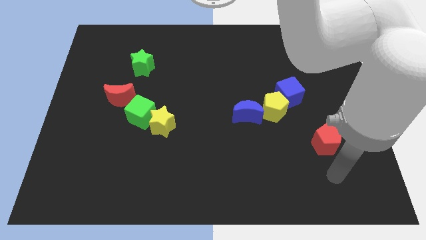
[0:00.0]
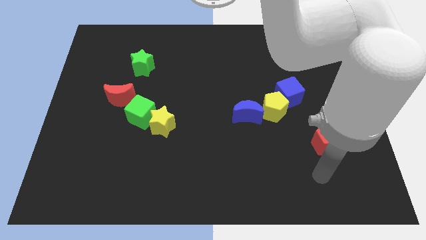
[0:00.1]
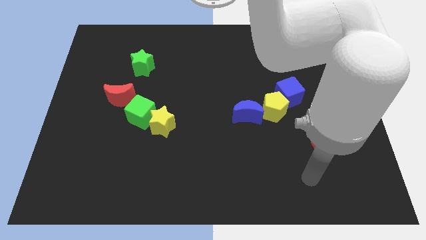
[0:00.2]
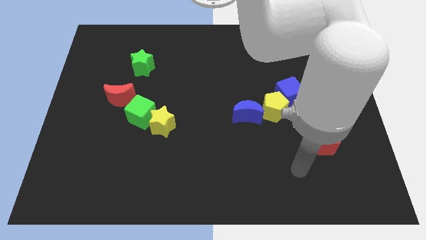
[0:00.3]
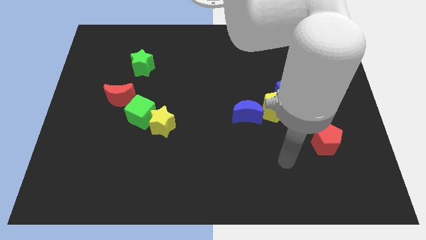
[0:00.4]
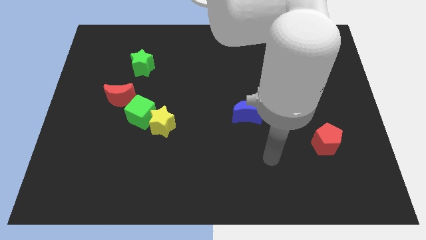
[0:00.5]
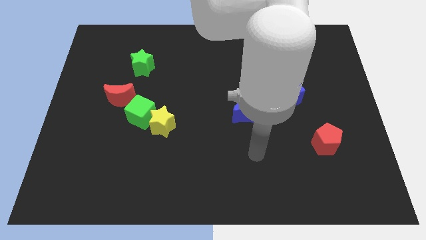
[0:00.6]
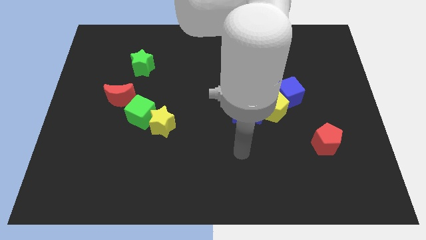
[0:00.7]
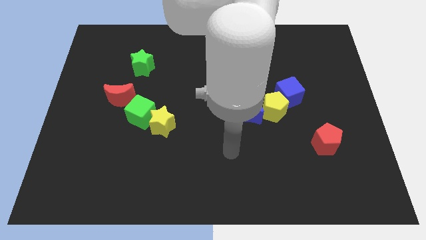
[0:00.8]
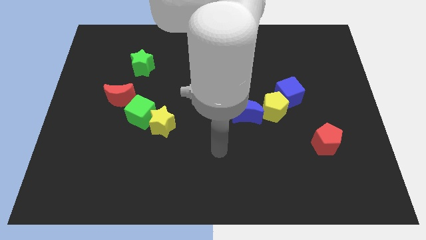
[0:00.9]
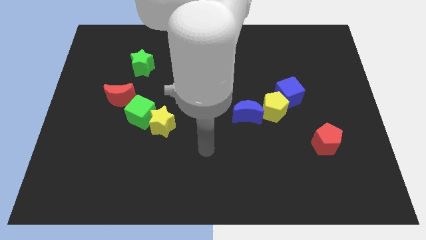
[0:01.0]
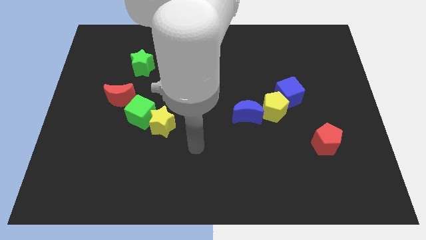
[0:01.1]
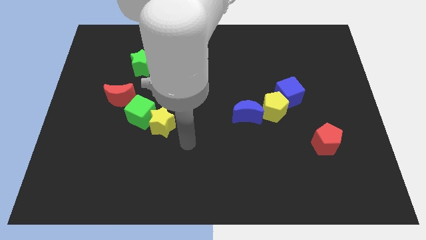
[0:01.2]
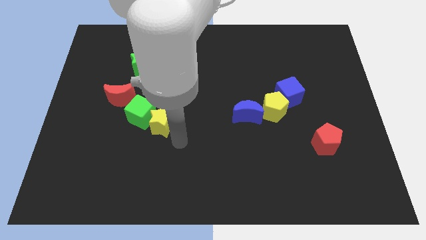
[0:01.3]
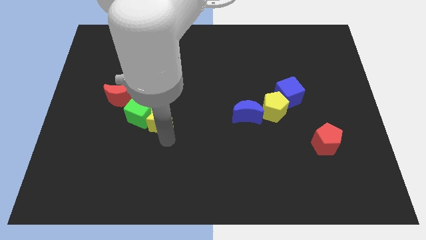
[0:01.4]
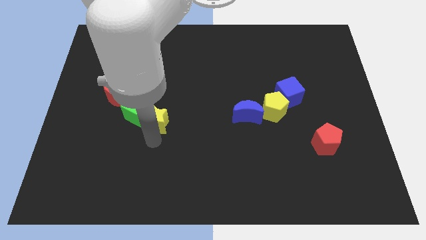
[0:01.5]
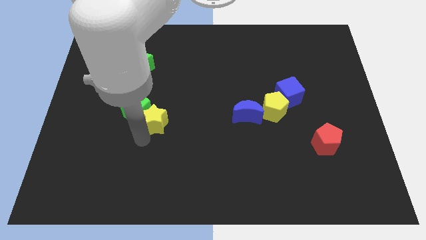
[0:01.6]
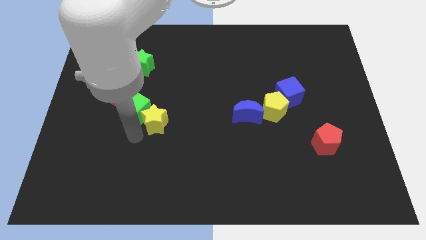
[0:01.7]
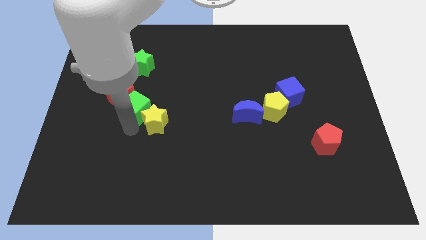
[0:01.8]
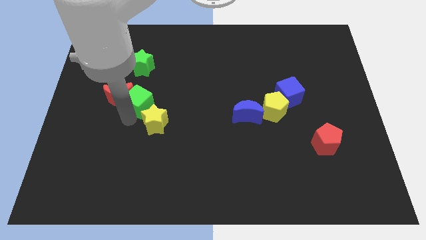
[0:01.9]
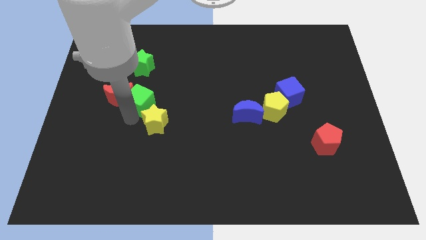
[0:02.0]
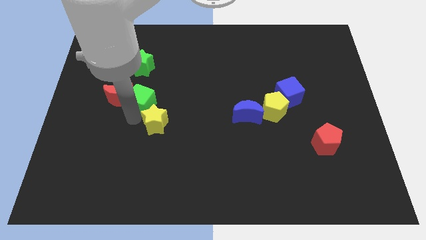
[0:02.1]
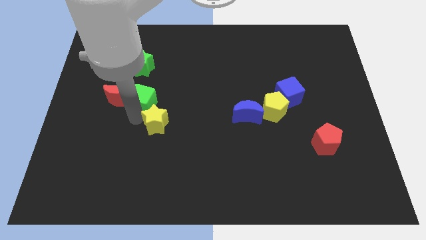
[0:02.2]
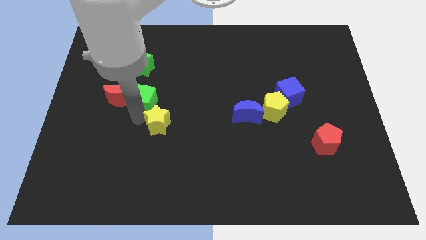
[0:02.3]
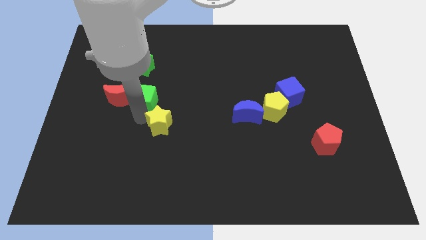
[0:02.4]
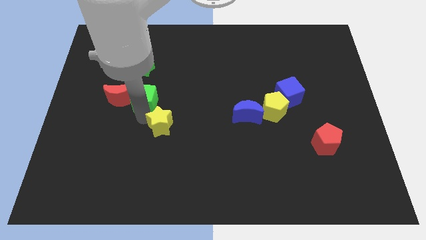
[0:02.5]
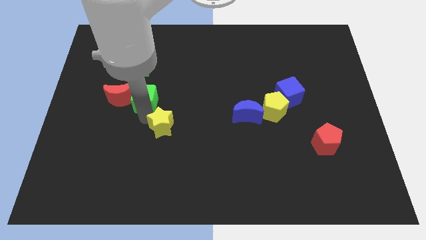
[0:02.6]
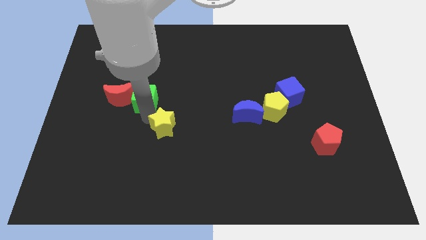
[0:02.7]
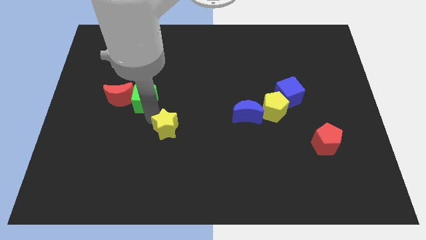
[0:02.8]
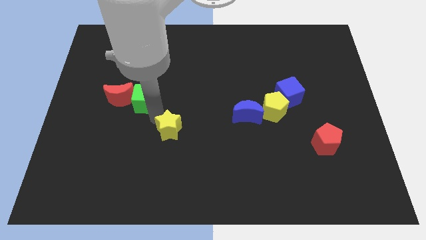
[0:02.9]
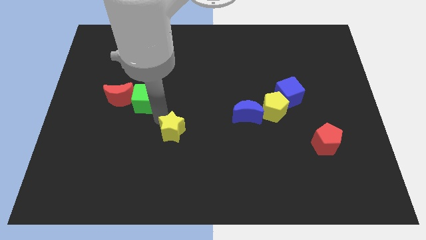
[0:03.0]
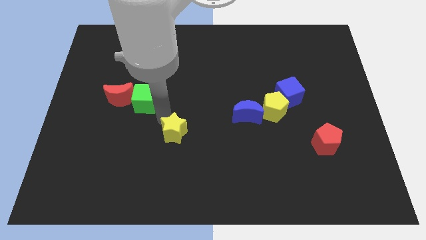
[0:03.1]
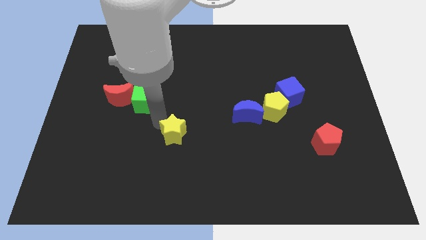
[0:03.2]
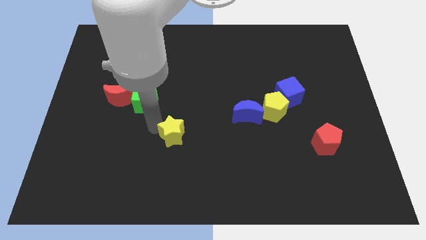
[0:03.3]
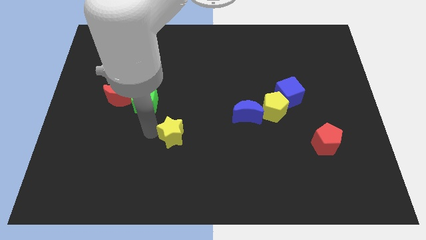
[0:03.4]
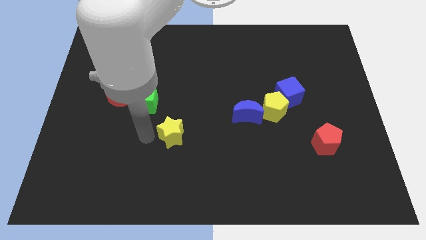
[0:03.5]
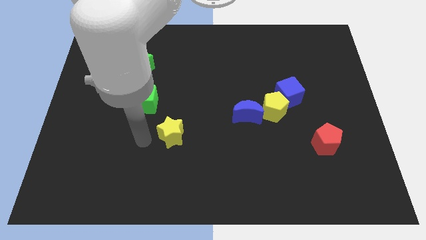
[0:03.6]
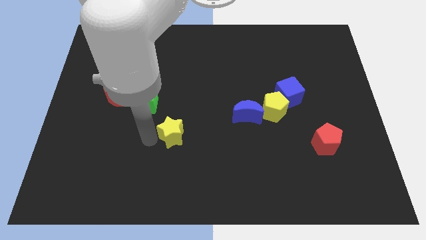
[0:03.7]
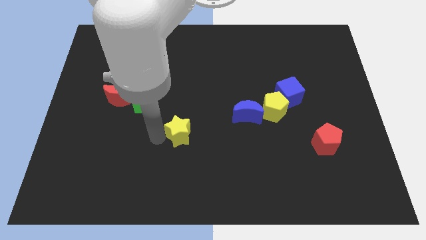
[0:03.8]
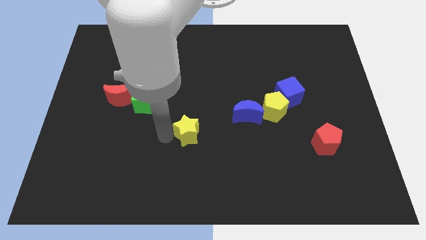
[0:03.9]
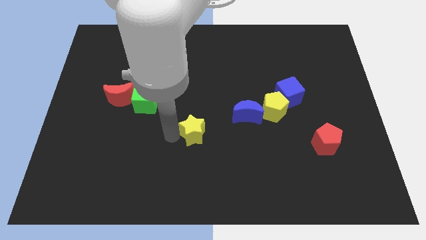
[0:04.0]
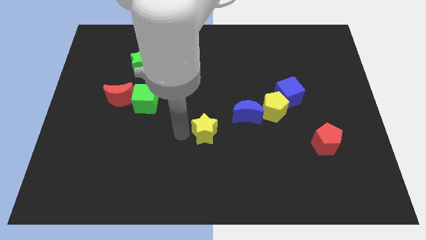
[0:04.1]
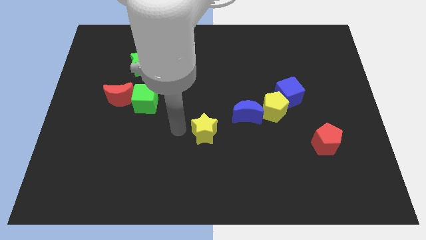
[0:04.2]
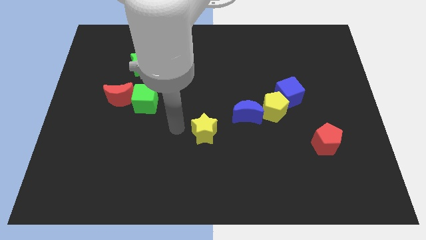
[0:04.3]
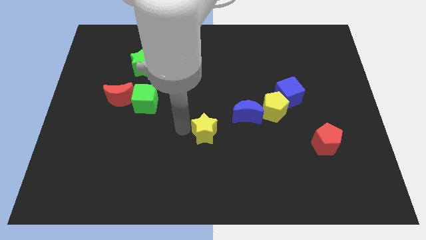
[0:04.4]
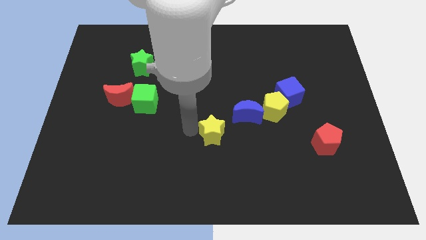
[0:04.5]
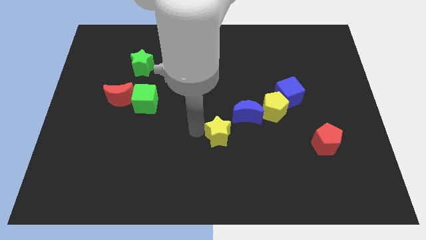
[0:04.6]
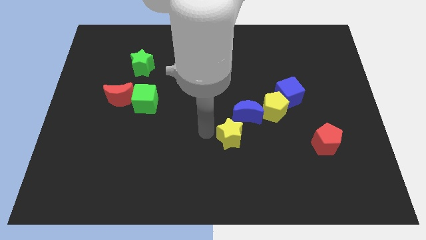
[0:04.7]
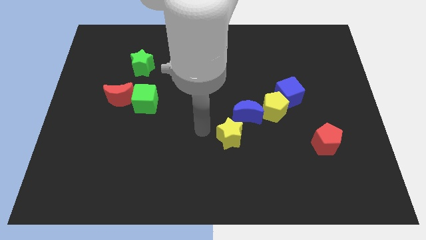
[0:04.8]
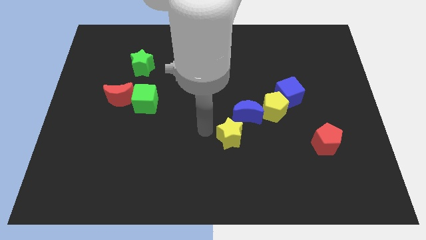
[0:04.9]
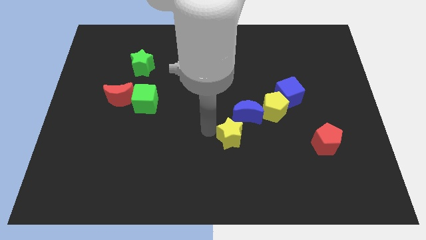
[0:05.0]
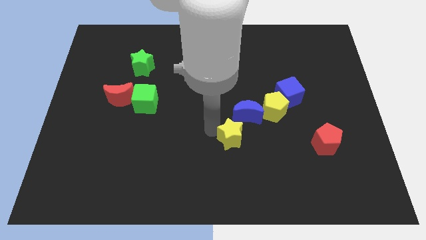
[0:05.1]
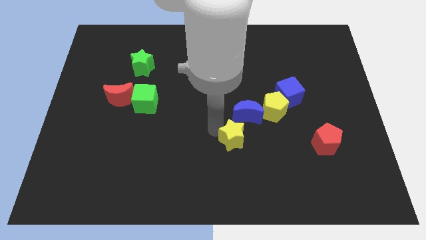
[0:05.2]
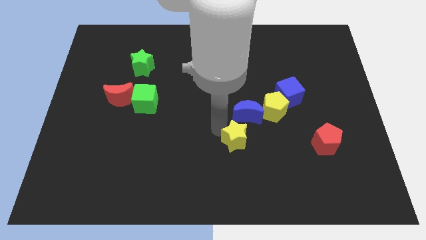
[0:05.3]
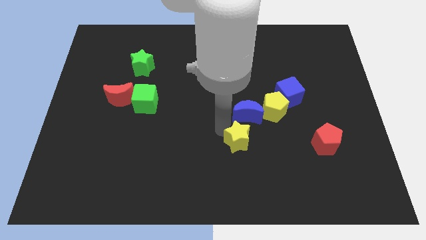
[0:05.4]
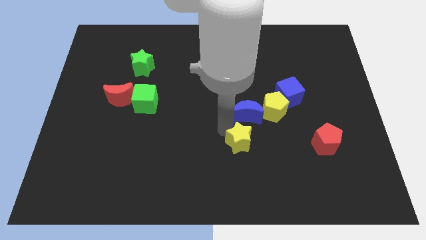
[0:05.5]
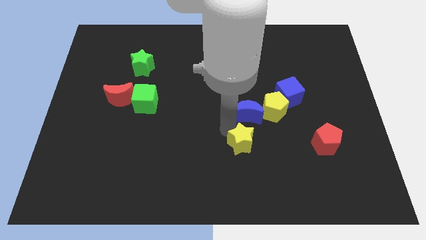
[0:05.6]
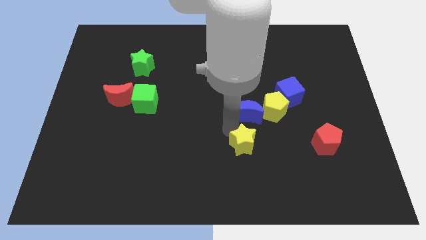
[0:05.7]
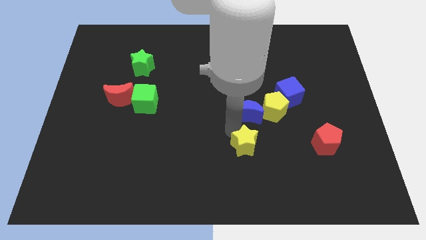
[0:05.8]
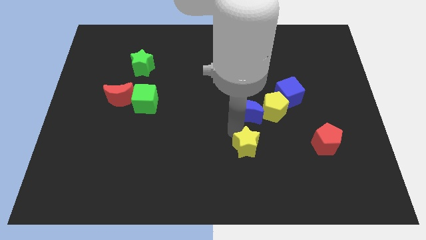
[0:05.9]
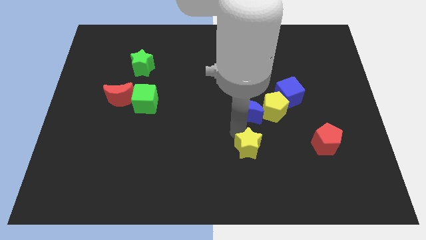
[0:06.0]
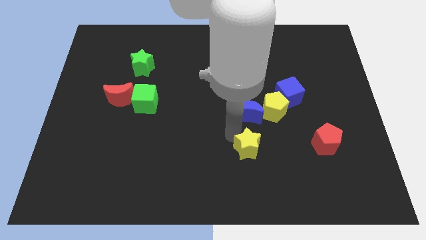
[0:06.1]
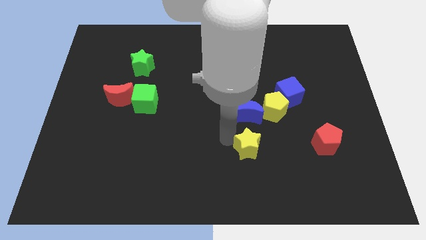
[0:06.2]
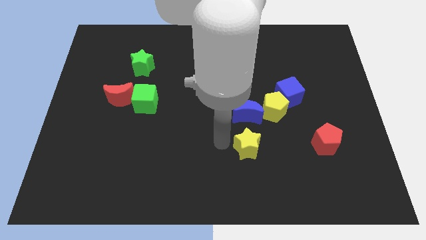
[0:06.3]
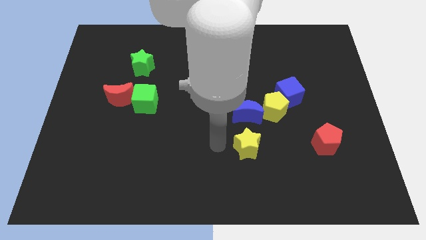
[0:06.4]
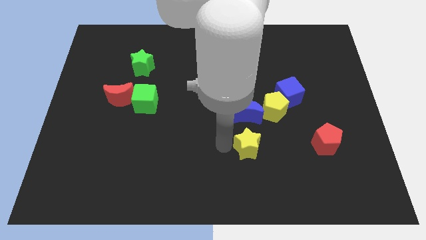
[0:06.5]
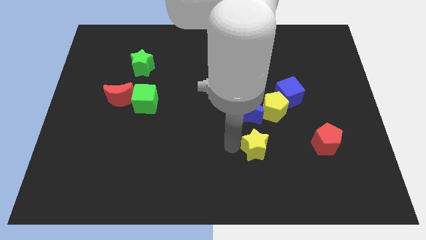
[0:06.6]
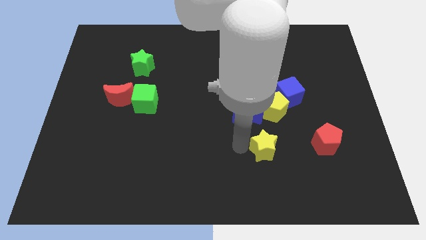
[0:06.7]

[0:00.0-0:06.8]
put the yellow star to the bottom side of the yellow pentagon
